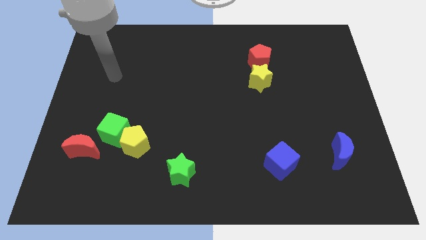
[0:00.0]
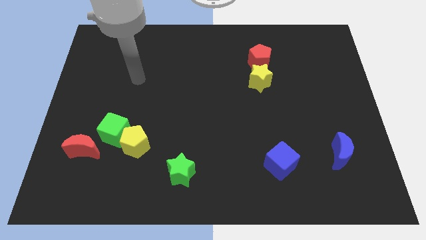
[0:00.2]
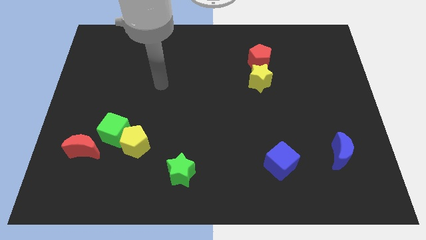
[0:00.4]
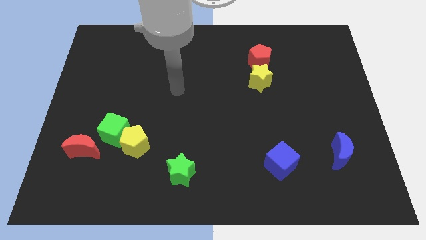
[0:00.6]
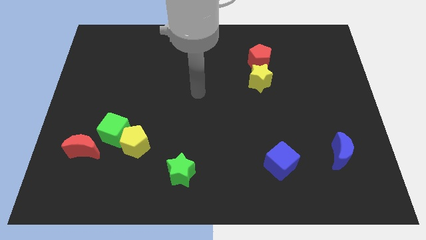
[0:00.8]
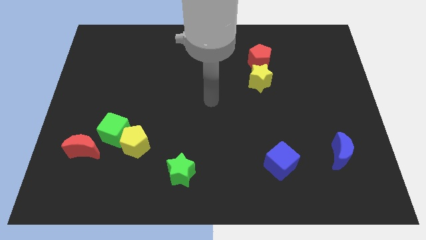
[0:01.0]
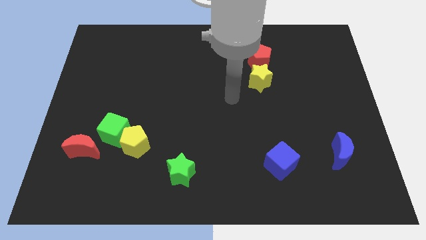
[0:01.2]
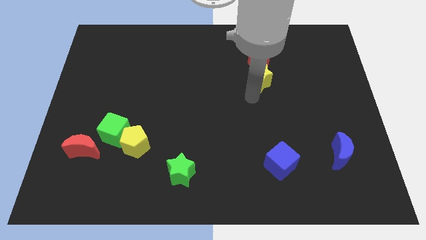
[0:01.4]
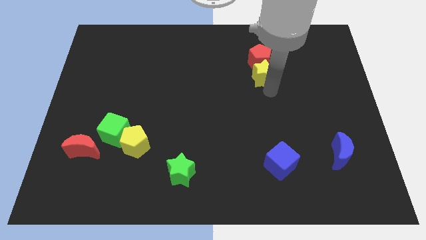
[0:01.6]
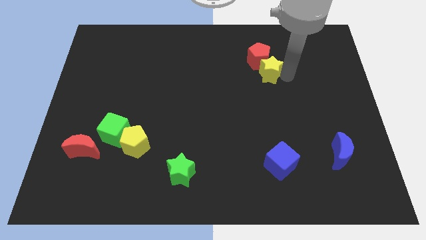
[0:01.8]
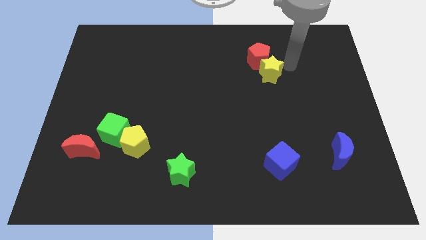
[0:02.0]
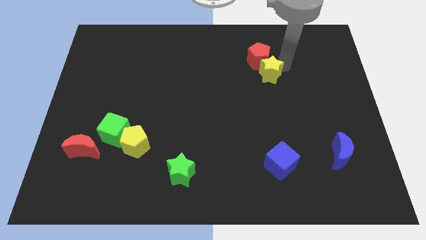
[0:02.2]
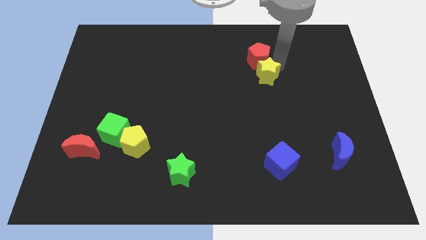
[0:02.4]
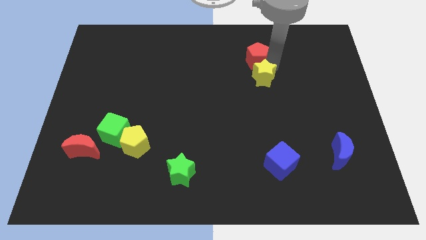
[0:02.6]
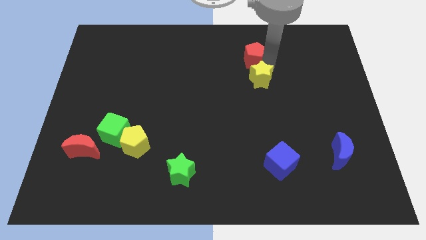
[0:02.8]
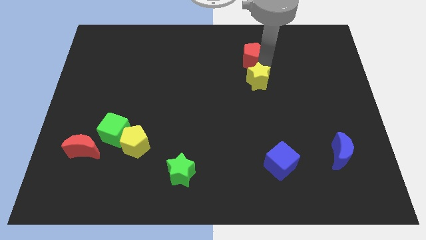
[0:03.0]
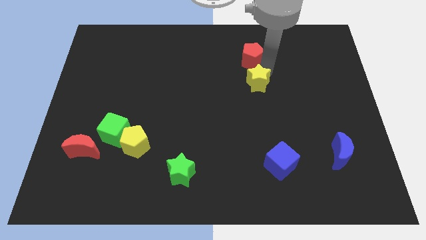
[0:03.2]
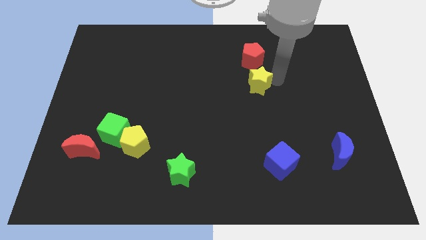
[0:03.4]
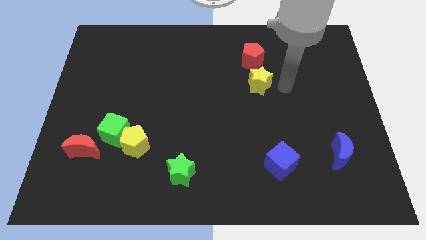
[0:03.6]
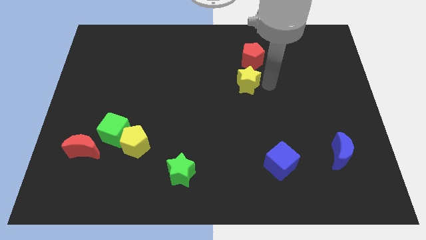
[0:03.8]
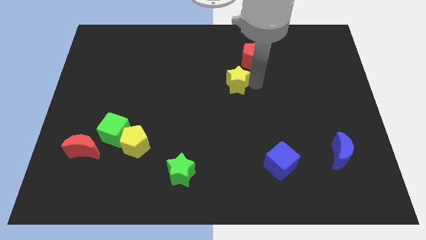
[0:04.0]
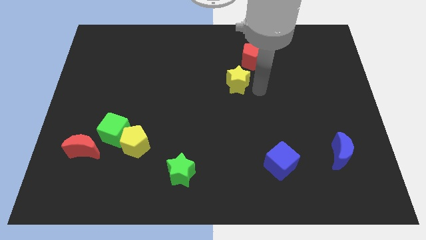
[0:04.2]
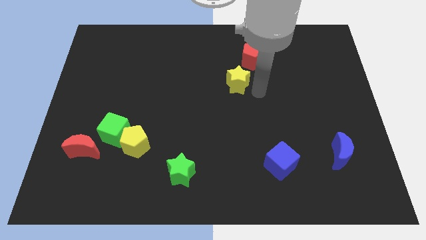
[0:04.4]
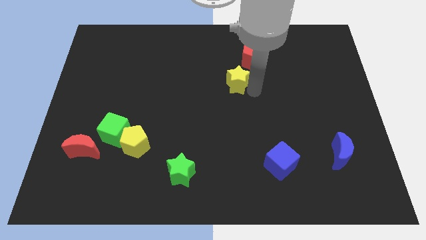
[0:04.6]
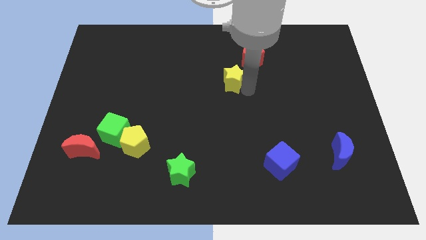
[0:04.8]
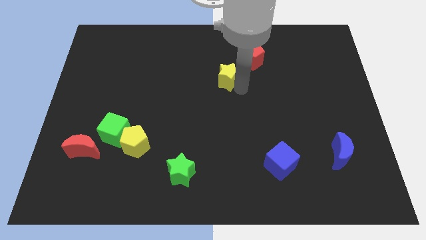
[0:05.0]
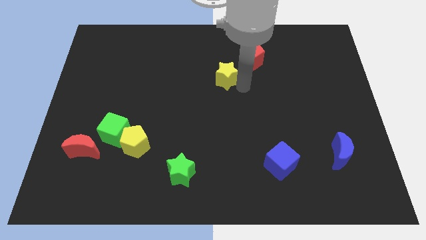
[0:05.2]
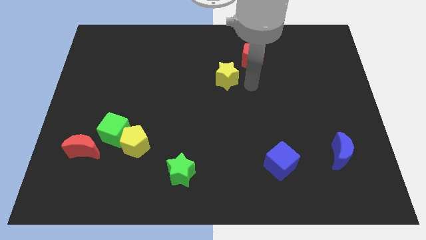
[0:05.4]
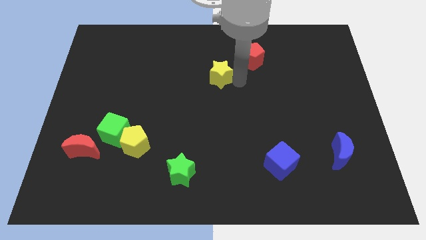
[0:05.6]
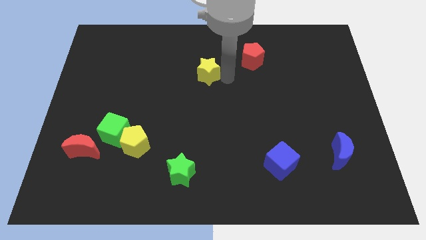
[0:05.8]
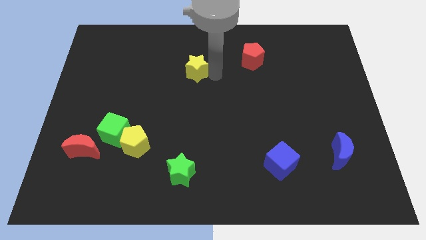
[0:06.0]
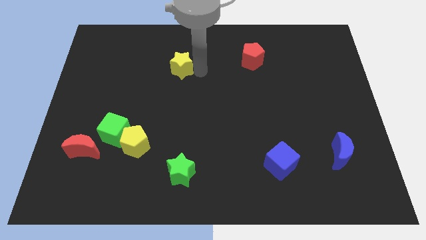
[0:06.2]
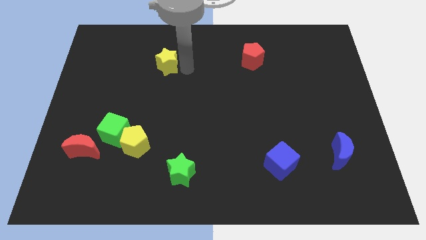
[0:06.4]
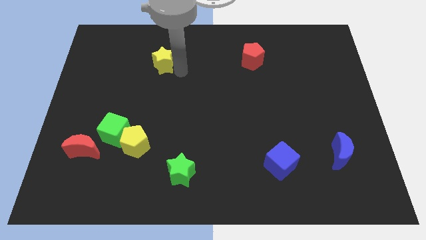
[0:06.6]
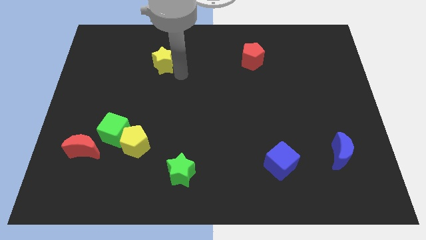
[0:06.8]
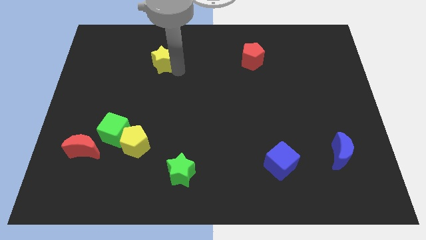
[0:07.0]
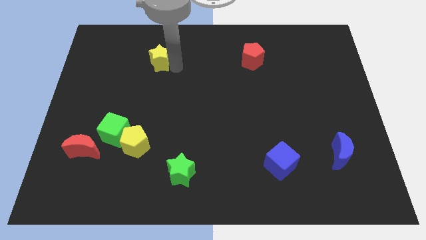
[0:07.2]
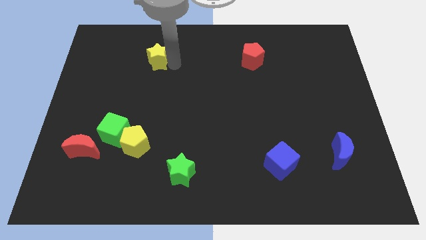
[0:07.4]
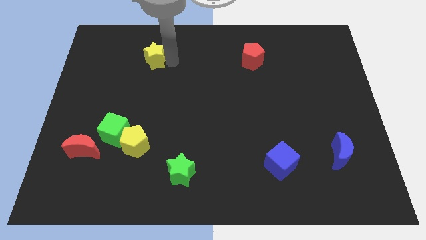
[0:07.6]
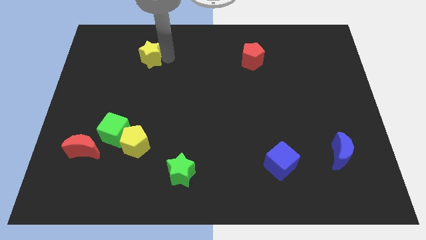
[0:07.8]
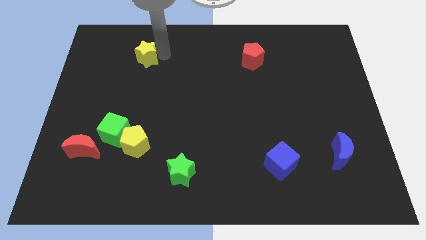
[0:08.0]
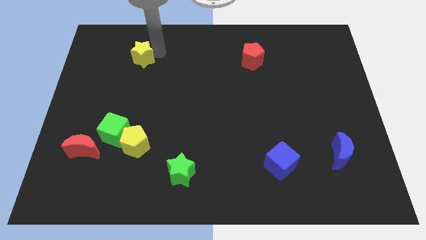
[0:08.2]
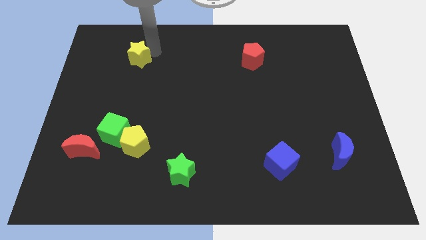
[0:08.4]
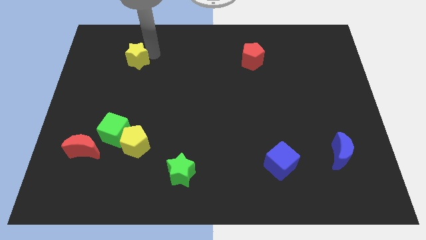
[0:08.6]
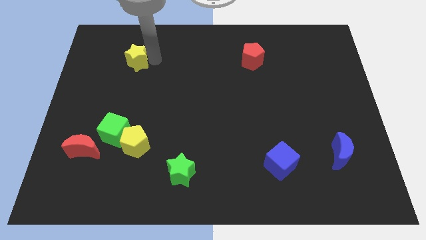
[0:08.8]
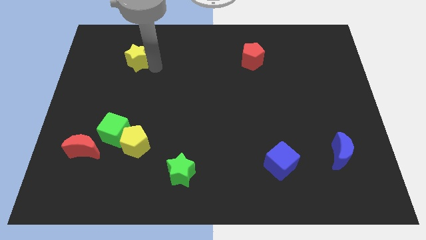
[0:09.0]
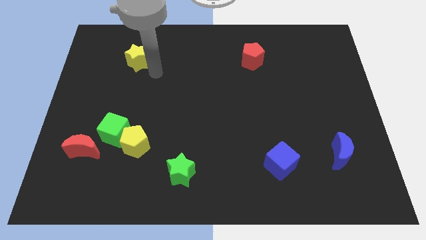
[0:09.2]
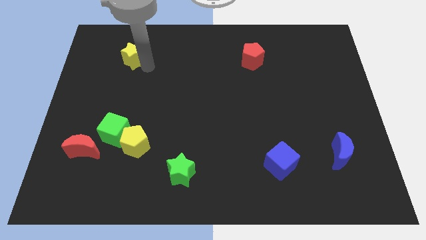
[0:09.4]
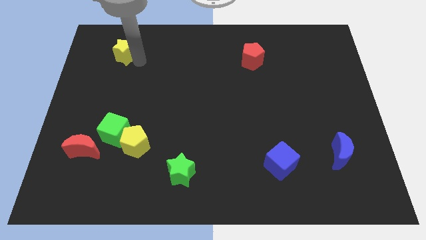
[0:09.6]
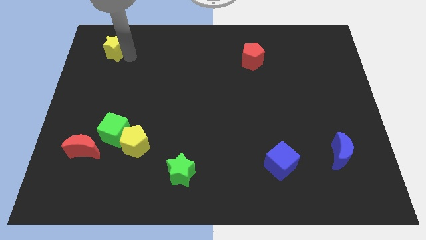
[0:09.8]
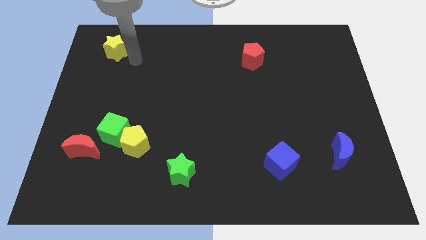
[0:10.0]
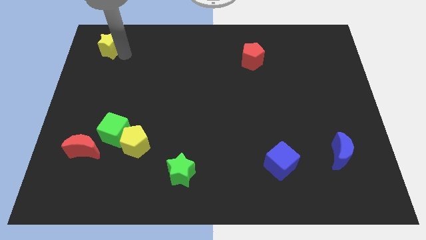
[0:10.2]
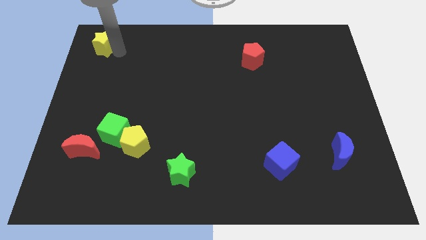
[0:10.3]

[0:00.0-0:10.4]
move the yellow star to the top left corner

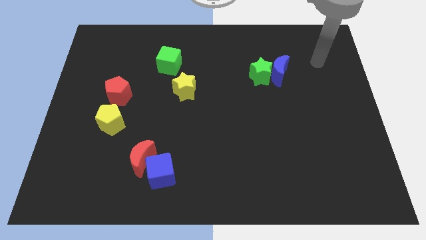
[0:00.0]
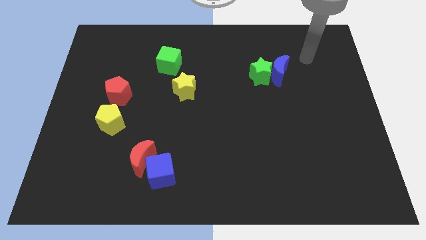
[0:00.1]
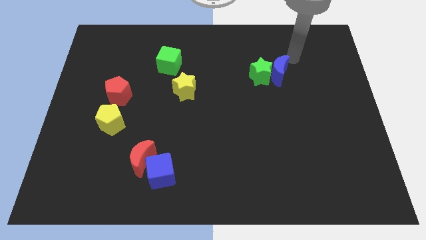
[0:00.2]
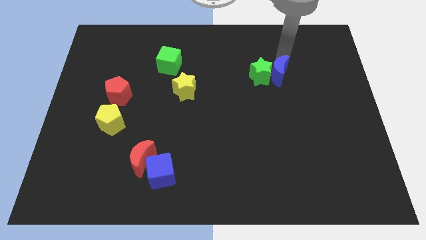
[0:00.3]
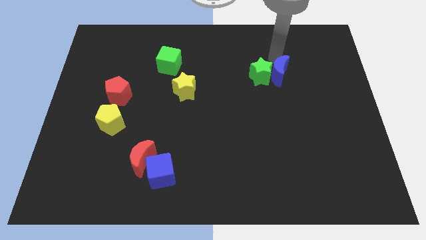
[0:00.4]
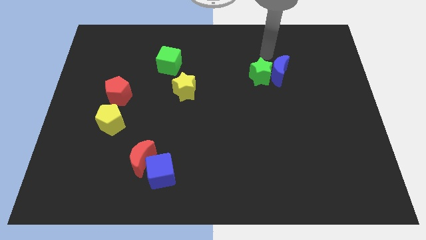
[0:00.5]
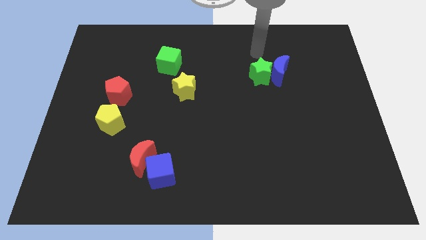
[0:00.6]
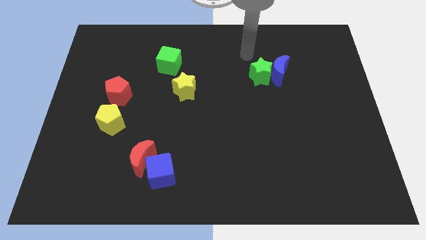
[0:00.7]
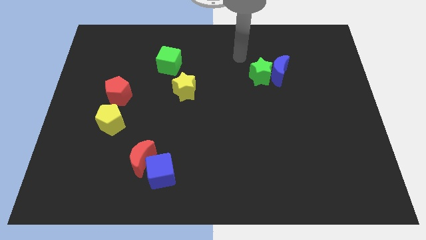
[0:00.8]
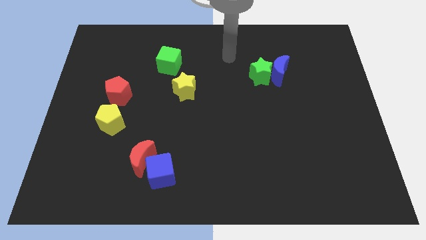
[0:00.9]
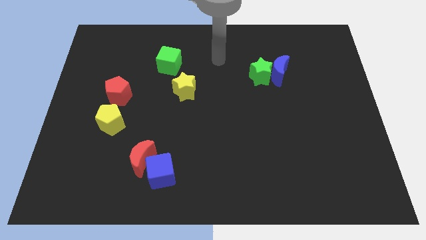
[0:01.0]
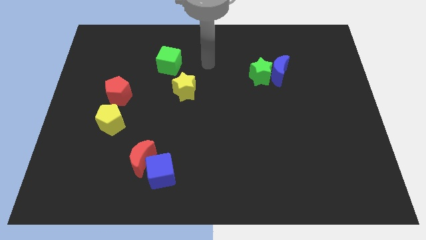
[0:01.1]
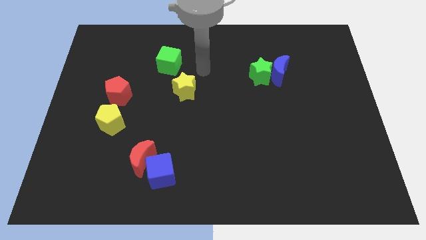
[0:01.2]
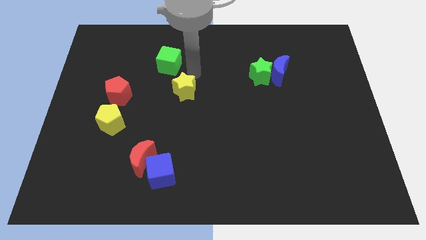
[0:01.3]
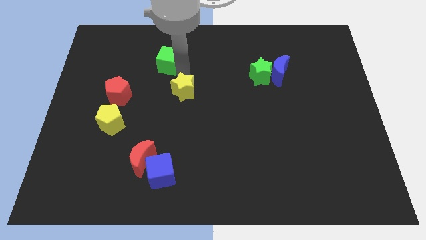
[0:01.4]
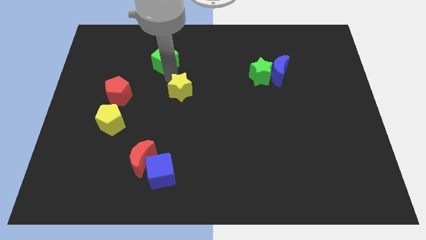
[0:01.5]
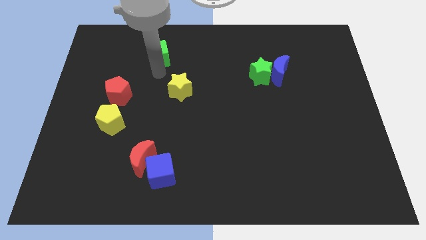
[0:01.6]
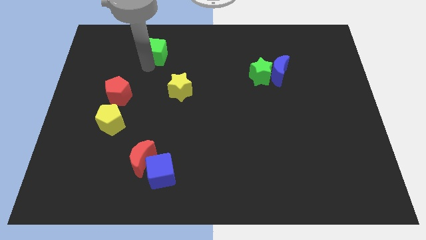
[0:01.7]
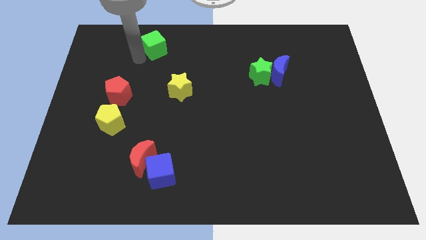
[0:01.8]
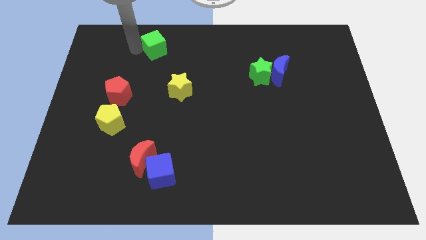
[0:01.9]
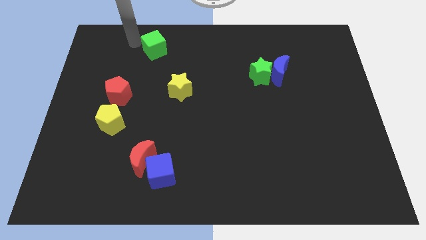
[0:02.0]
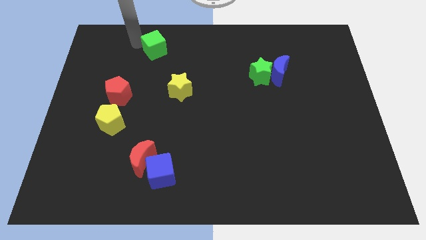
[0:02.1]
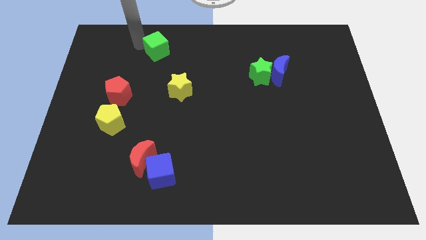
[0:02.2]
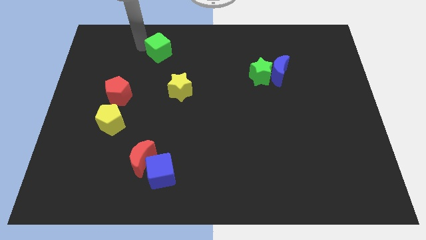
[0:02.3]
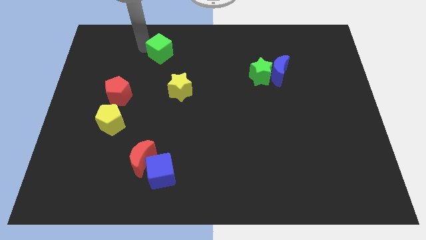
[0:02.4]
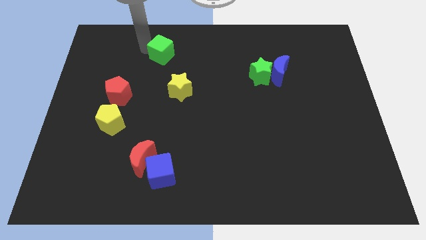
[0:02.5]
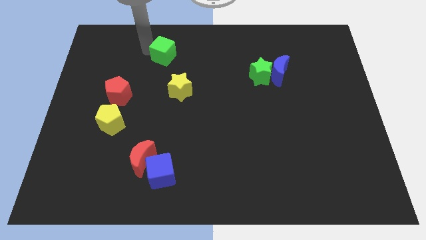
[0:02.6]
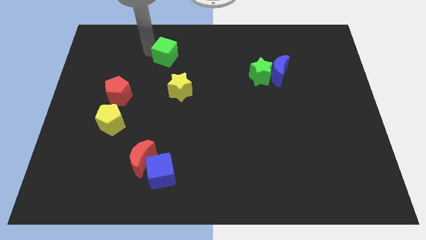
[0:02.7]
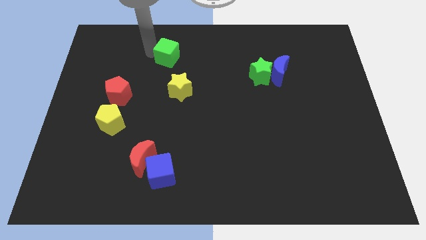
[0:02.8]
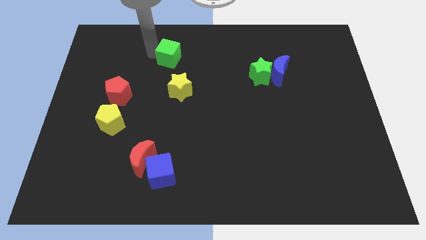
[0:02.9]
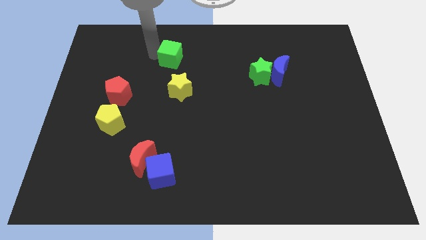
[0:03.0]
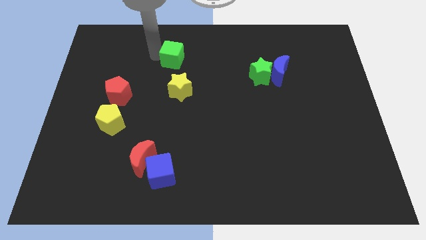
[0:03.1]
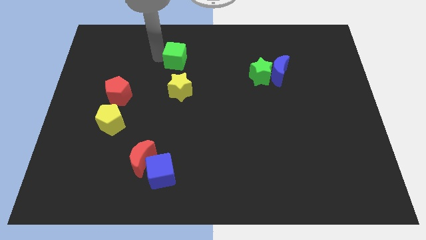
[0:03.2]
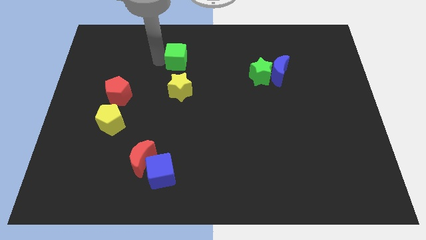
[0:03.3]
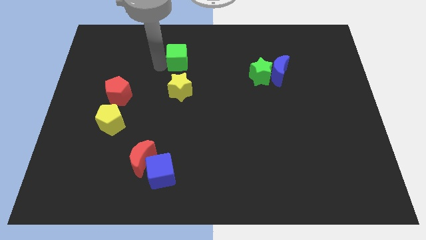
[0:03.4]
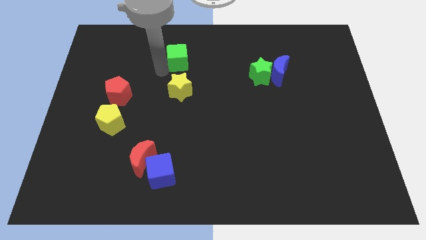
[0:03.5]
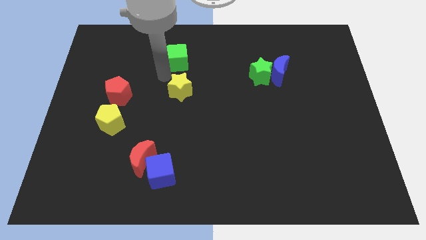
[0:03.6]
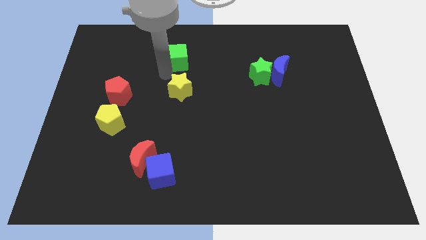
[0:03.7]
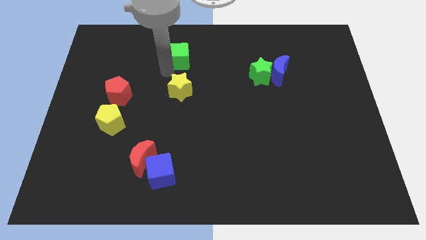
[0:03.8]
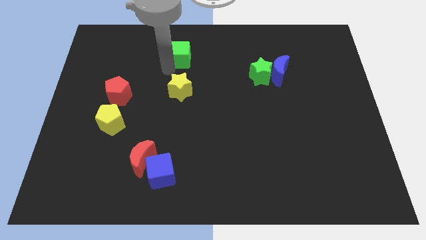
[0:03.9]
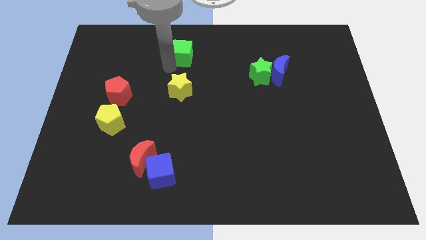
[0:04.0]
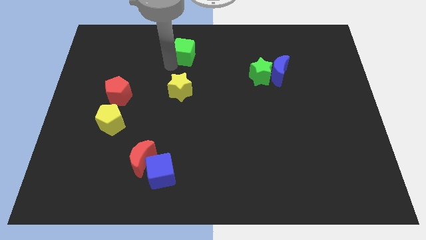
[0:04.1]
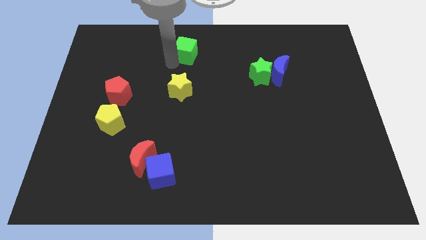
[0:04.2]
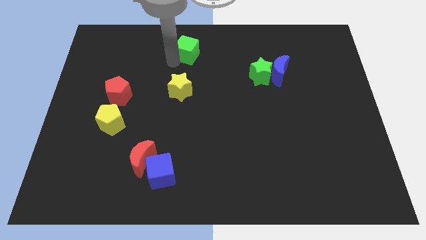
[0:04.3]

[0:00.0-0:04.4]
put the green cube to the towards your base
